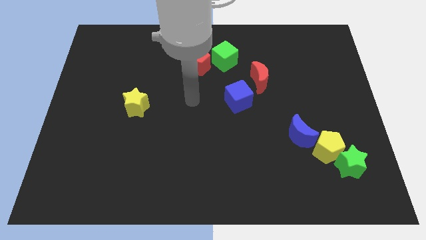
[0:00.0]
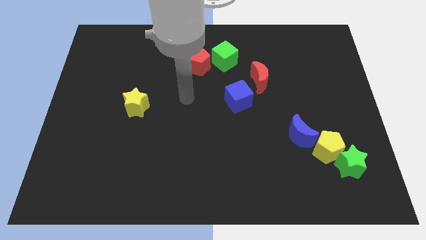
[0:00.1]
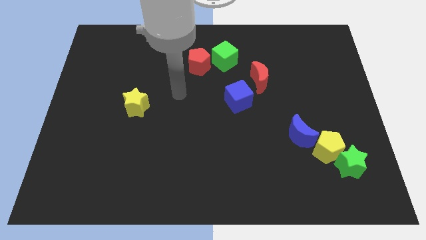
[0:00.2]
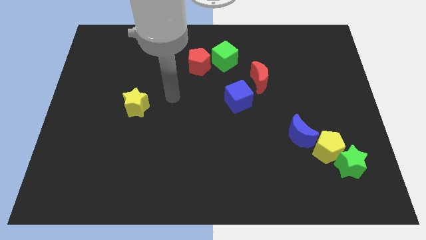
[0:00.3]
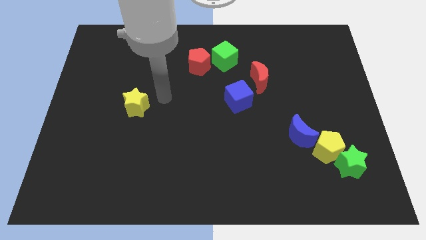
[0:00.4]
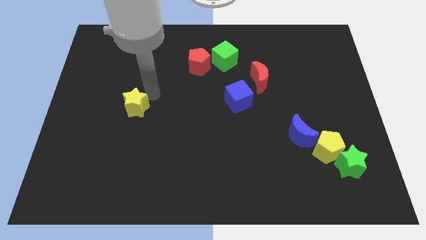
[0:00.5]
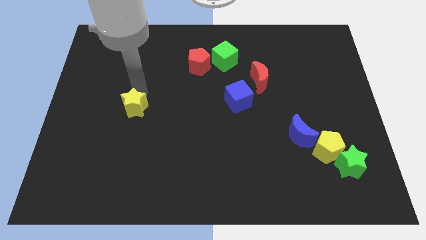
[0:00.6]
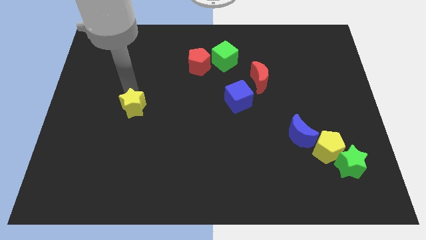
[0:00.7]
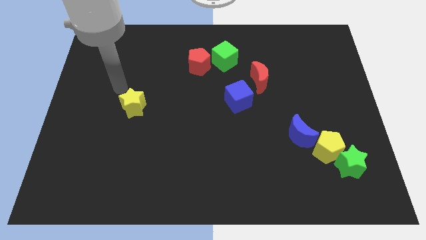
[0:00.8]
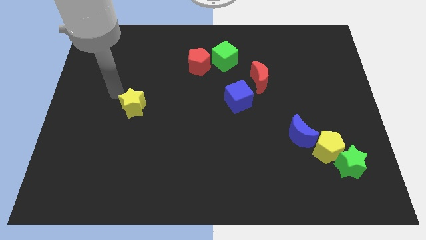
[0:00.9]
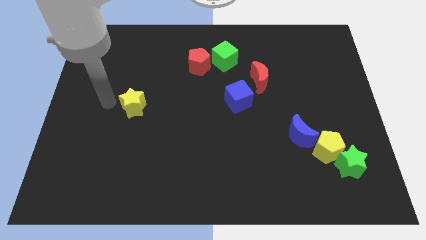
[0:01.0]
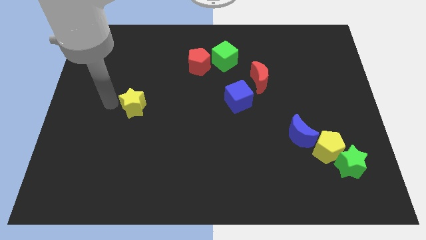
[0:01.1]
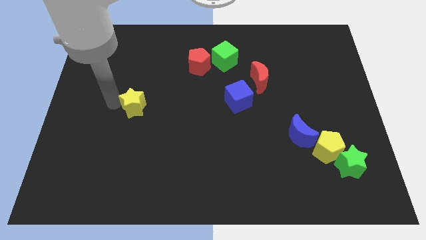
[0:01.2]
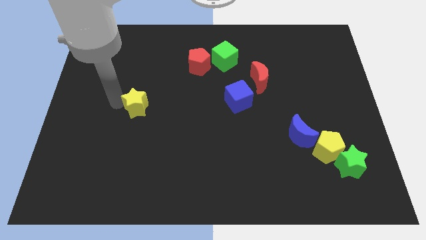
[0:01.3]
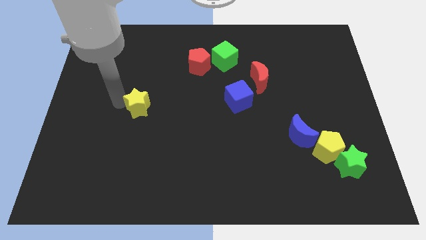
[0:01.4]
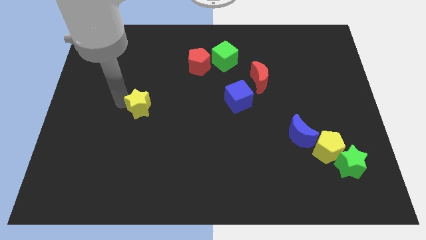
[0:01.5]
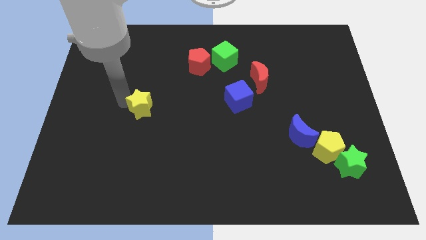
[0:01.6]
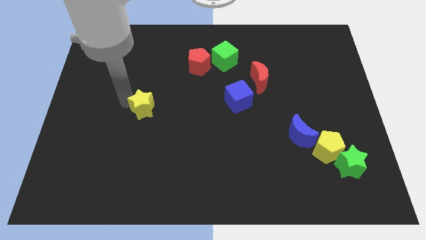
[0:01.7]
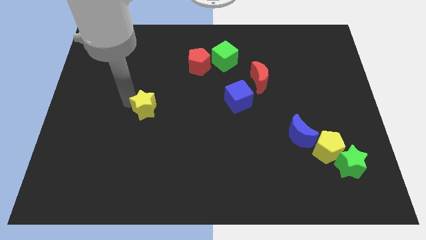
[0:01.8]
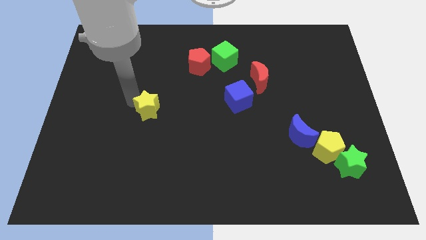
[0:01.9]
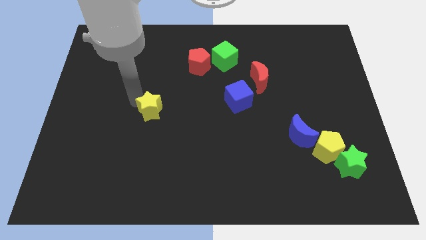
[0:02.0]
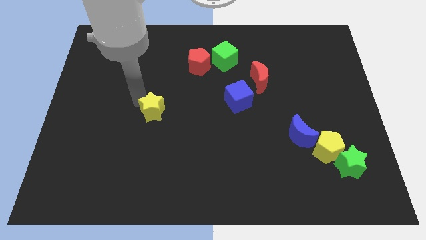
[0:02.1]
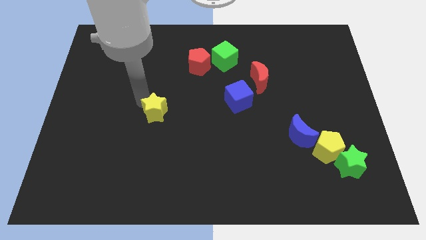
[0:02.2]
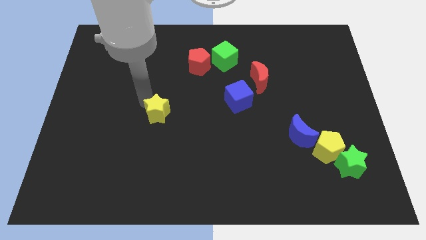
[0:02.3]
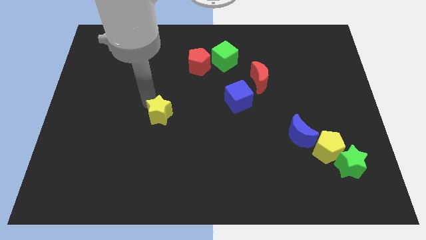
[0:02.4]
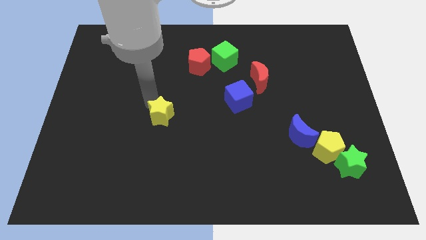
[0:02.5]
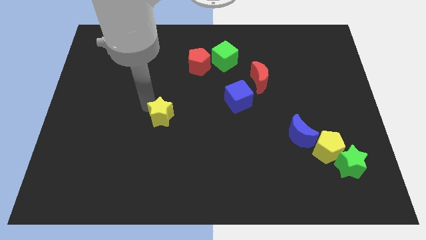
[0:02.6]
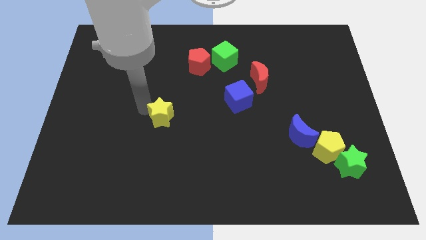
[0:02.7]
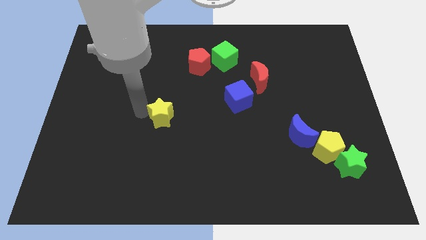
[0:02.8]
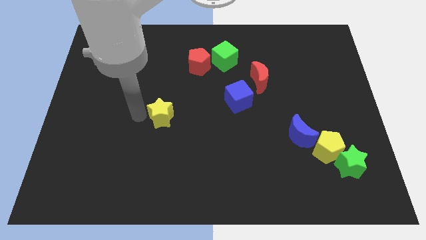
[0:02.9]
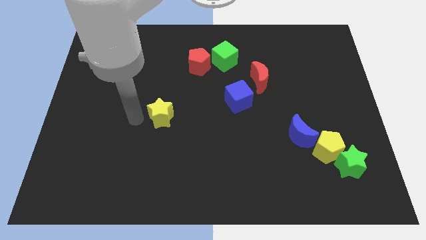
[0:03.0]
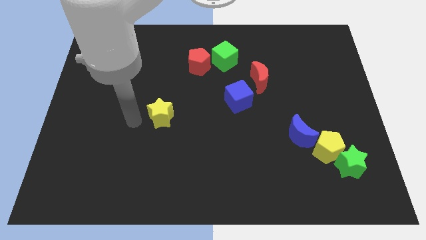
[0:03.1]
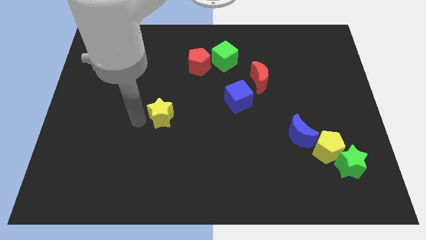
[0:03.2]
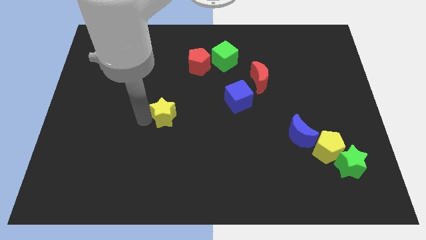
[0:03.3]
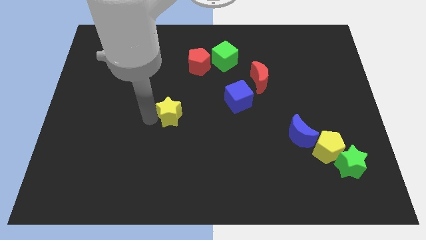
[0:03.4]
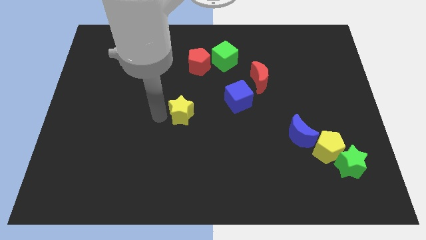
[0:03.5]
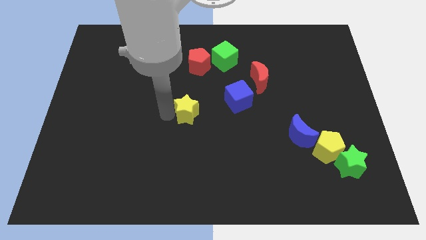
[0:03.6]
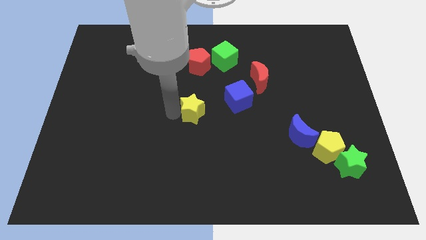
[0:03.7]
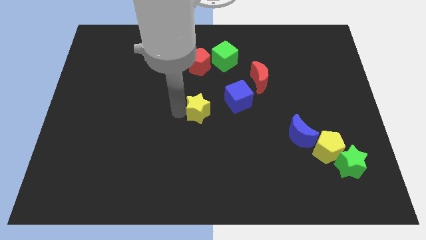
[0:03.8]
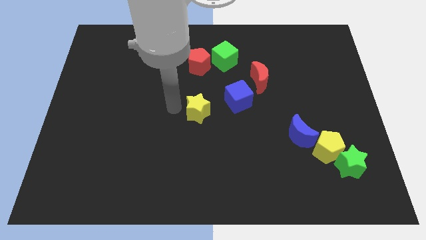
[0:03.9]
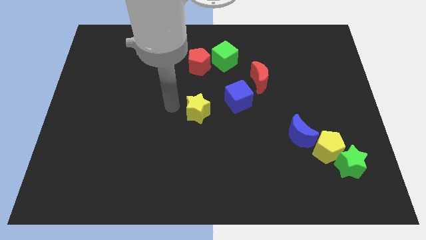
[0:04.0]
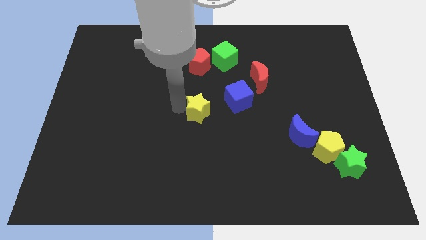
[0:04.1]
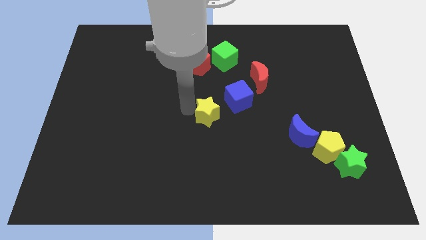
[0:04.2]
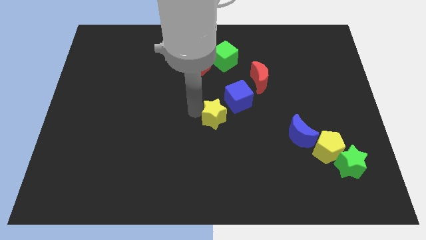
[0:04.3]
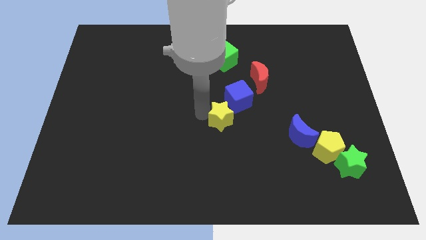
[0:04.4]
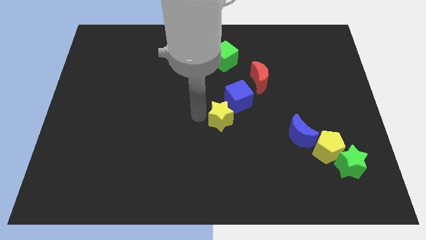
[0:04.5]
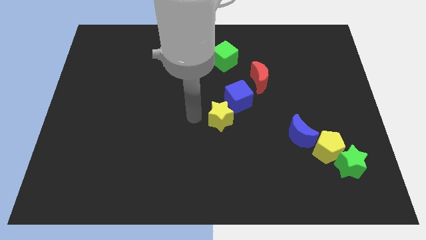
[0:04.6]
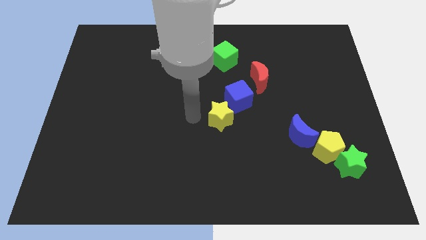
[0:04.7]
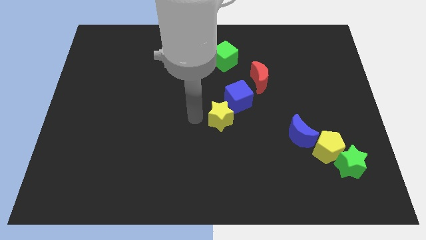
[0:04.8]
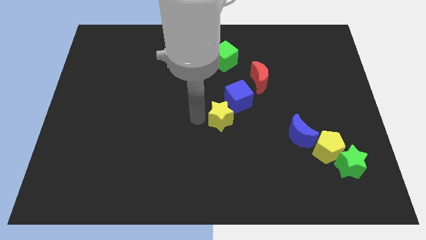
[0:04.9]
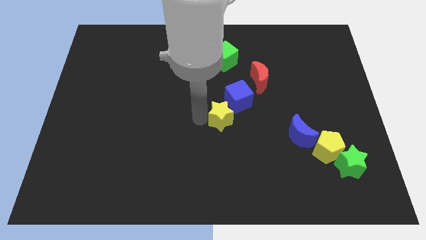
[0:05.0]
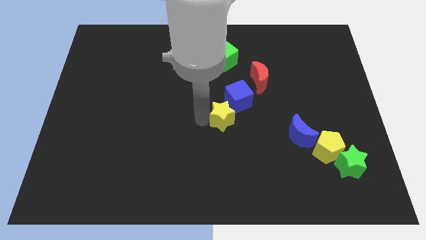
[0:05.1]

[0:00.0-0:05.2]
push the yellow star right

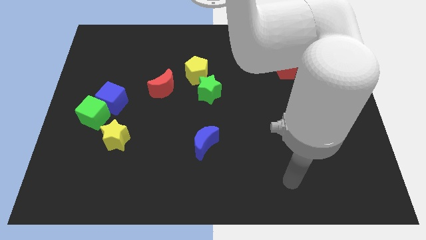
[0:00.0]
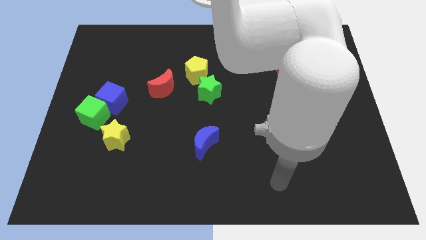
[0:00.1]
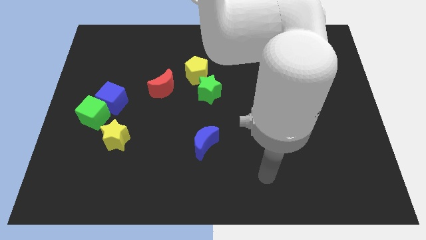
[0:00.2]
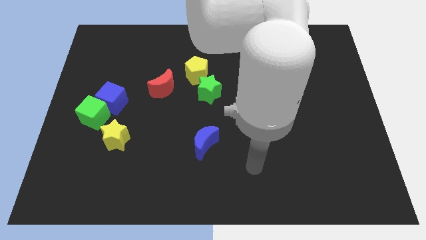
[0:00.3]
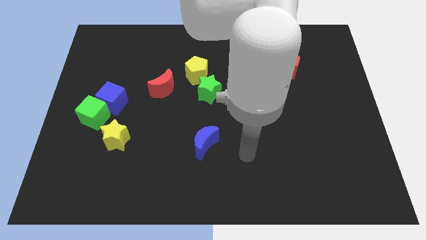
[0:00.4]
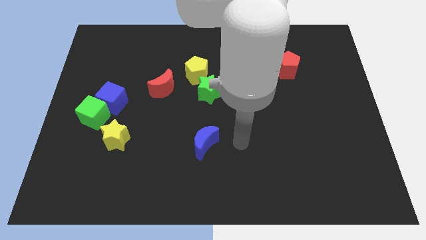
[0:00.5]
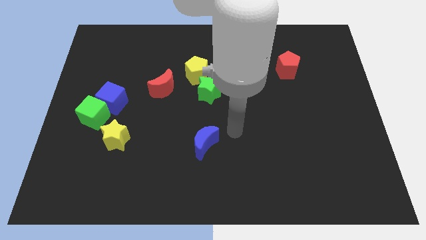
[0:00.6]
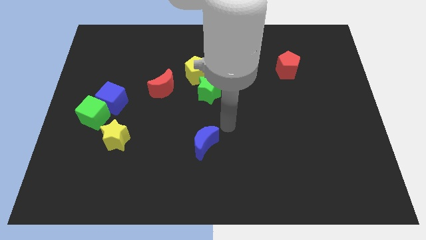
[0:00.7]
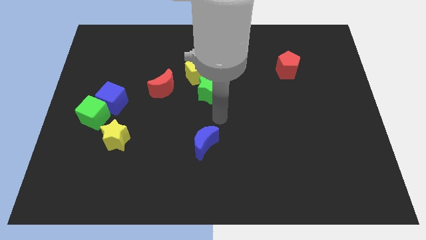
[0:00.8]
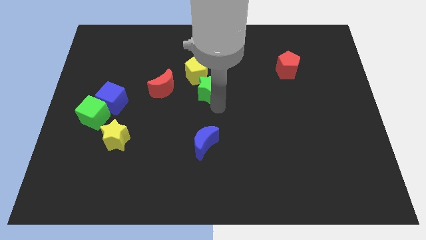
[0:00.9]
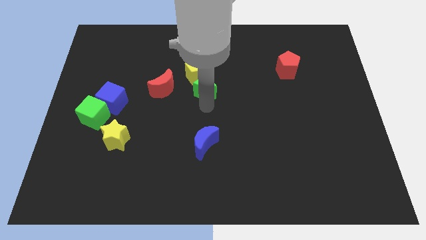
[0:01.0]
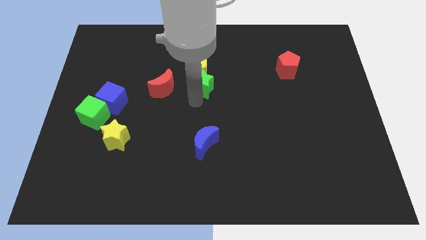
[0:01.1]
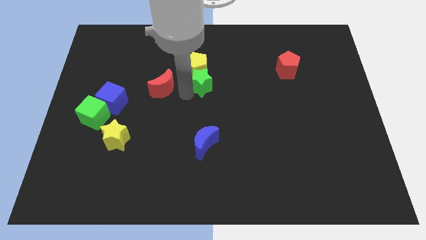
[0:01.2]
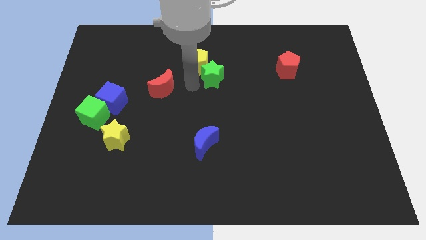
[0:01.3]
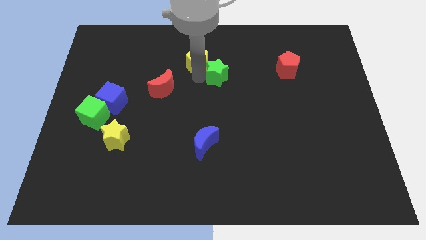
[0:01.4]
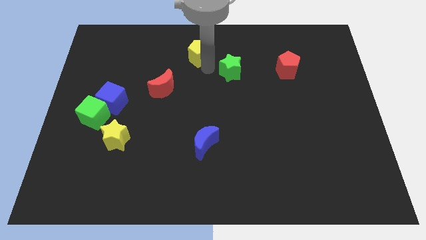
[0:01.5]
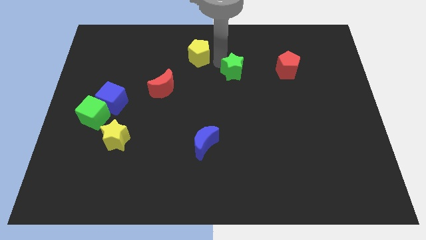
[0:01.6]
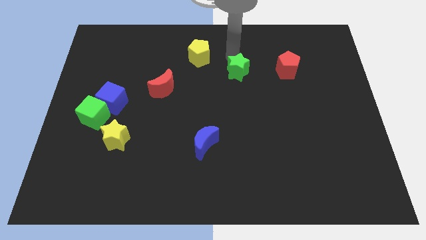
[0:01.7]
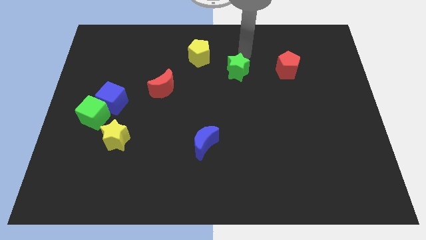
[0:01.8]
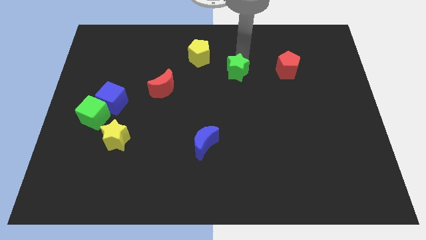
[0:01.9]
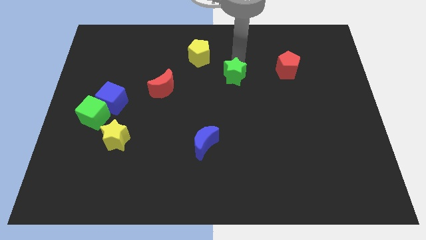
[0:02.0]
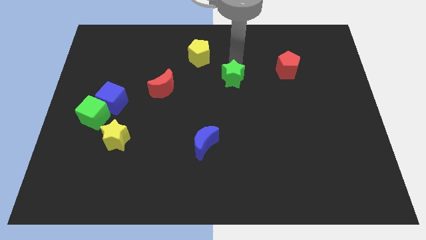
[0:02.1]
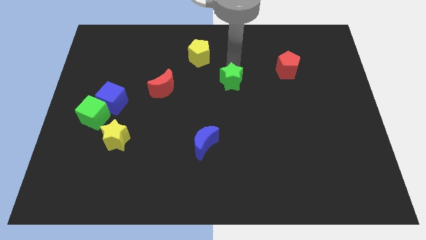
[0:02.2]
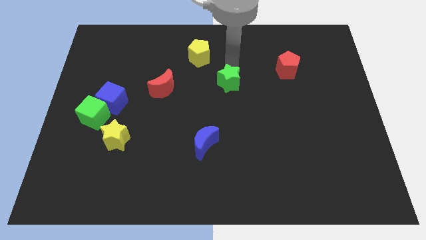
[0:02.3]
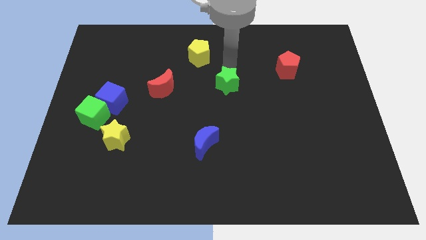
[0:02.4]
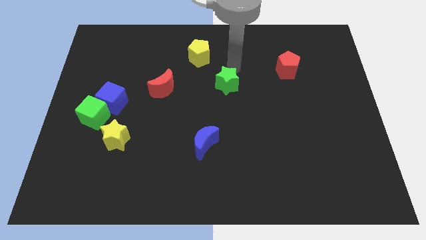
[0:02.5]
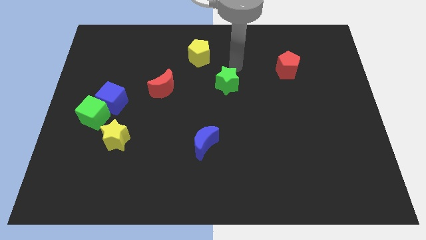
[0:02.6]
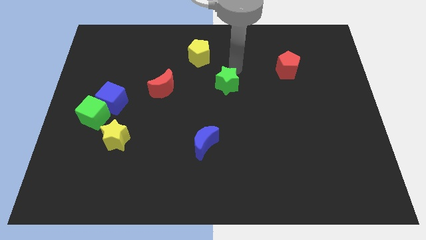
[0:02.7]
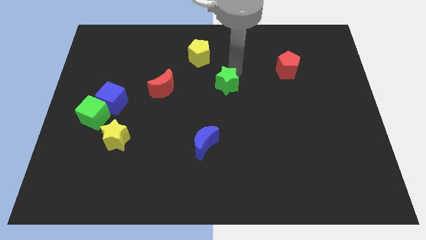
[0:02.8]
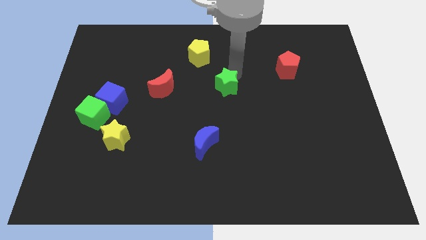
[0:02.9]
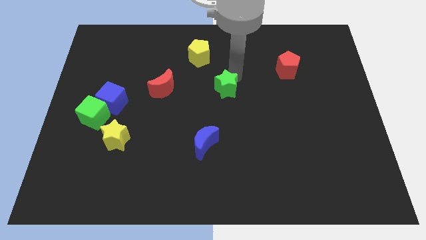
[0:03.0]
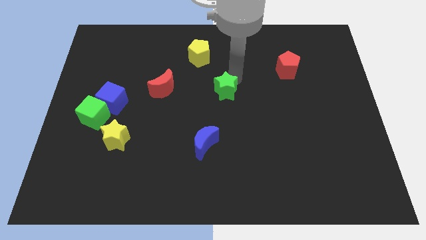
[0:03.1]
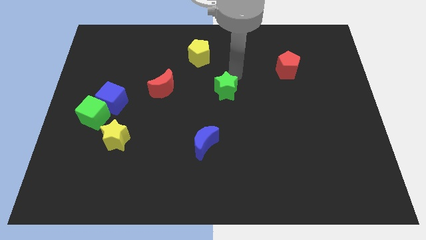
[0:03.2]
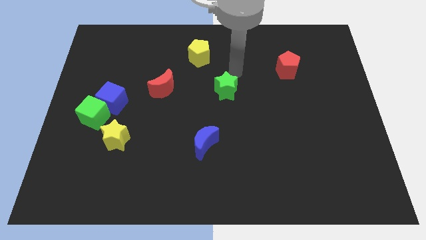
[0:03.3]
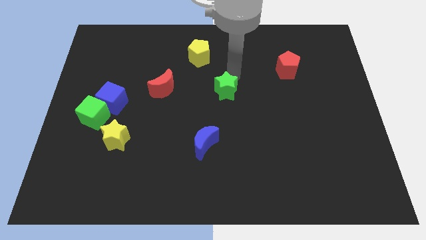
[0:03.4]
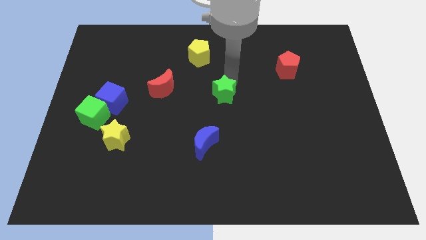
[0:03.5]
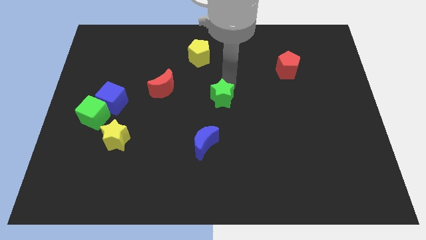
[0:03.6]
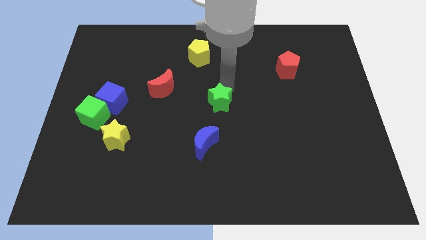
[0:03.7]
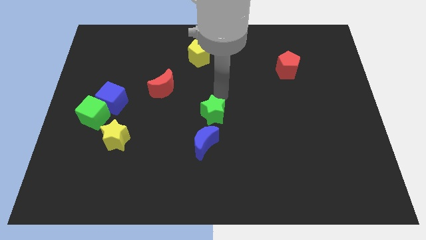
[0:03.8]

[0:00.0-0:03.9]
slightly slide the green star downwards
